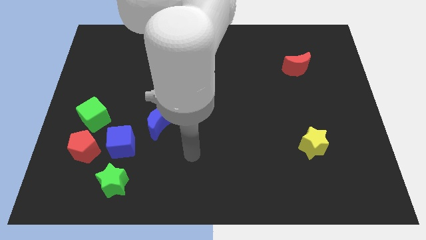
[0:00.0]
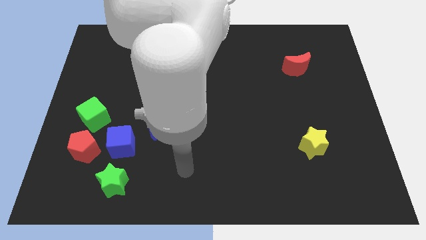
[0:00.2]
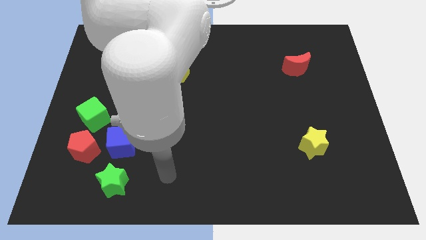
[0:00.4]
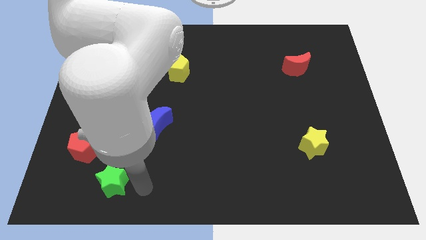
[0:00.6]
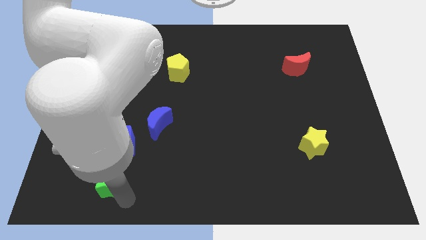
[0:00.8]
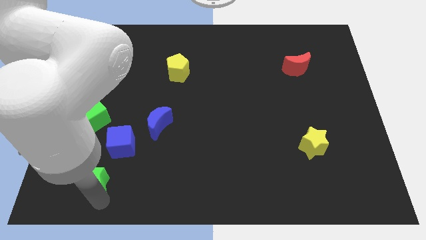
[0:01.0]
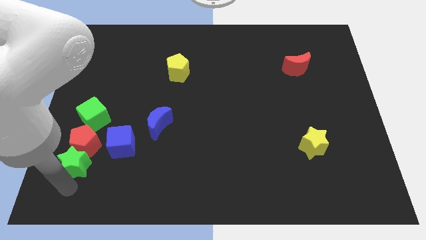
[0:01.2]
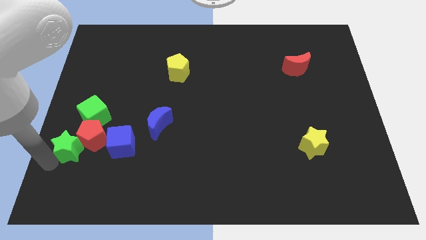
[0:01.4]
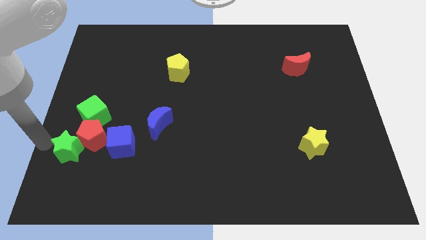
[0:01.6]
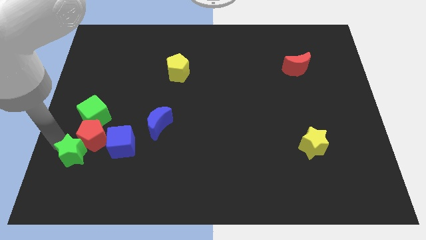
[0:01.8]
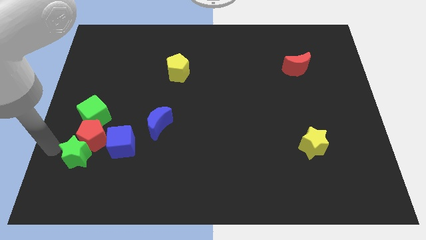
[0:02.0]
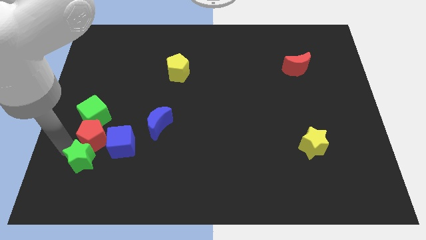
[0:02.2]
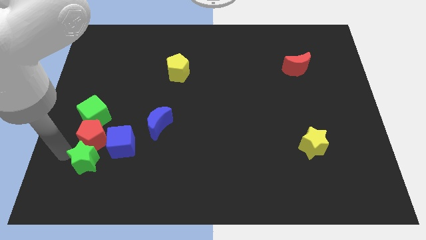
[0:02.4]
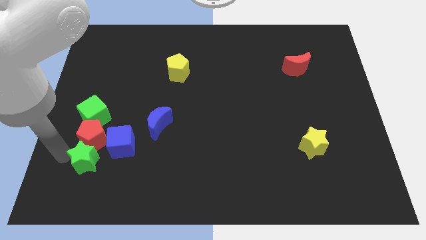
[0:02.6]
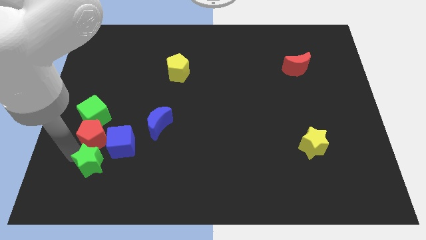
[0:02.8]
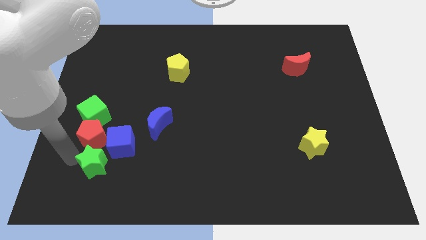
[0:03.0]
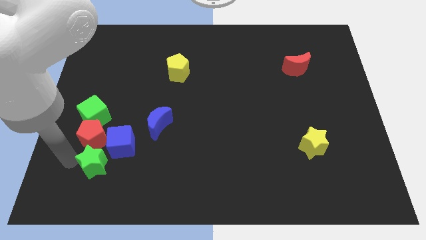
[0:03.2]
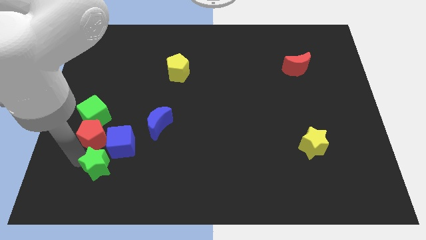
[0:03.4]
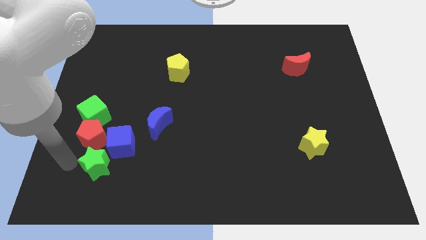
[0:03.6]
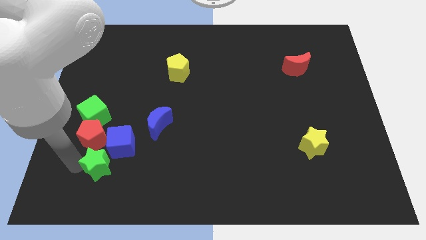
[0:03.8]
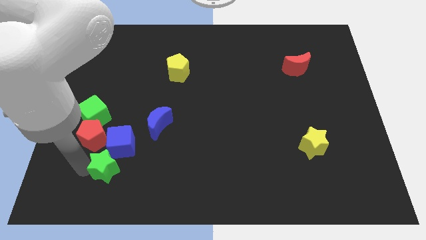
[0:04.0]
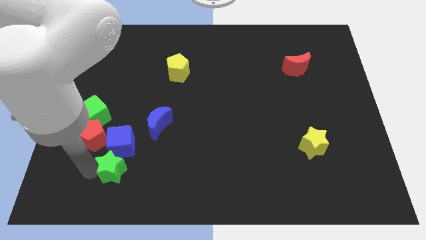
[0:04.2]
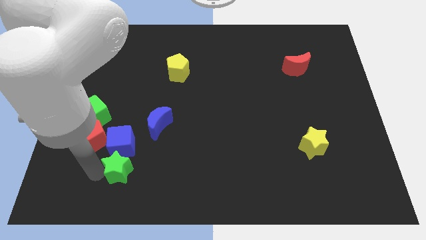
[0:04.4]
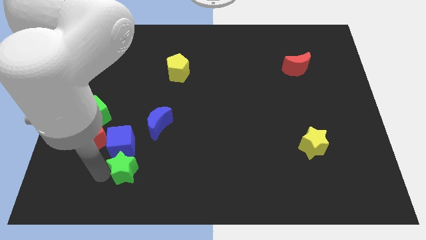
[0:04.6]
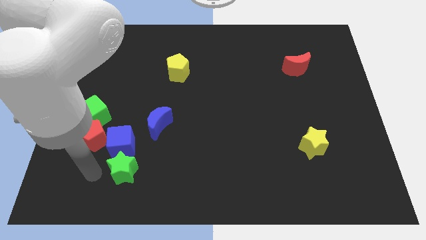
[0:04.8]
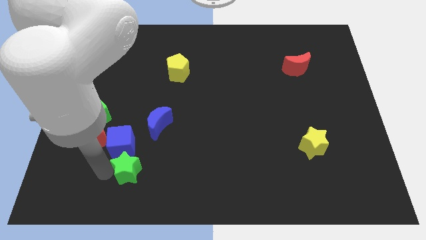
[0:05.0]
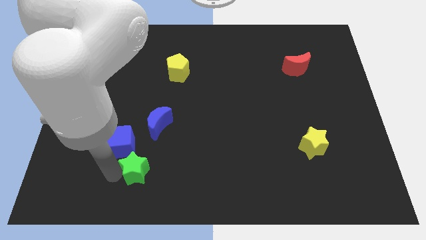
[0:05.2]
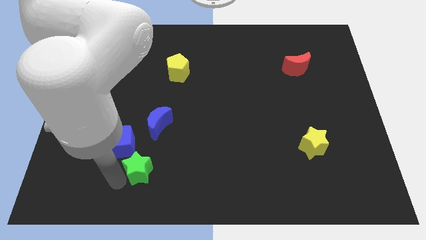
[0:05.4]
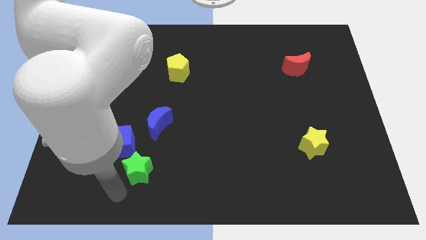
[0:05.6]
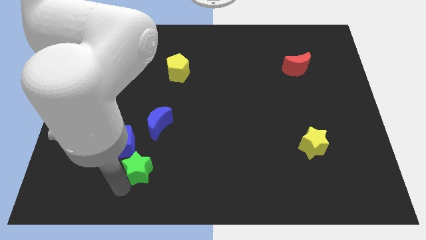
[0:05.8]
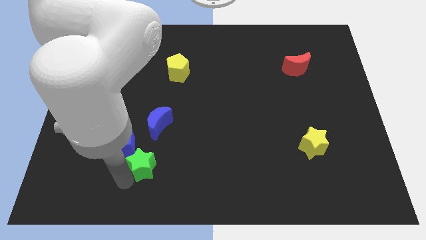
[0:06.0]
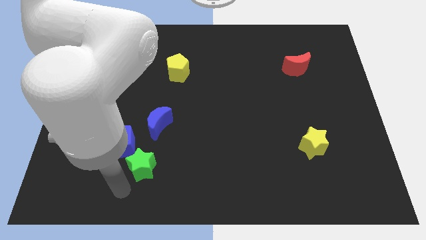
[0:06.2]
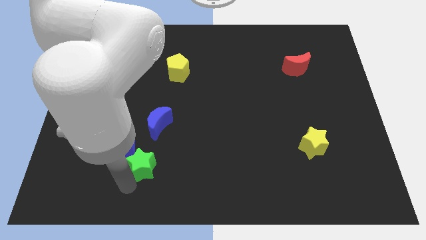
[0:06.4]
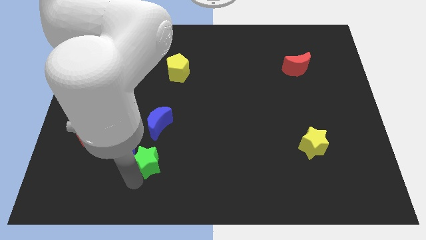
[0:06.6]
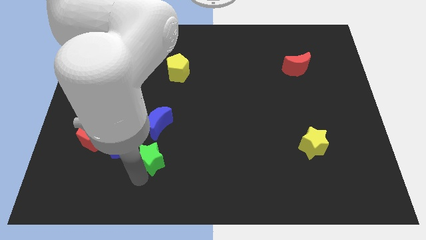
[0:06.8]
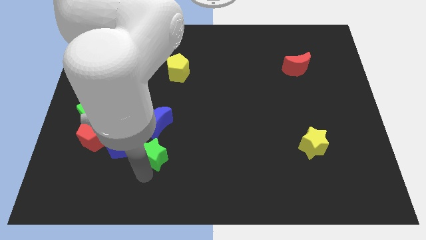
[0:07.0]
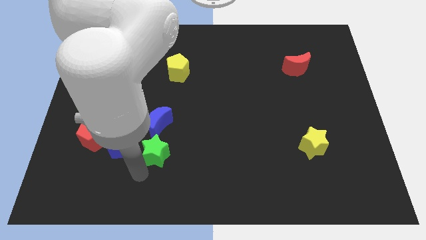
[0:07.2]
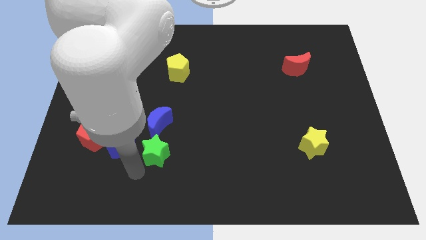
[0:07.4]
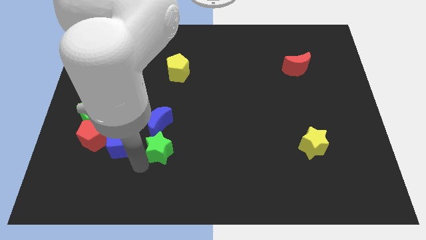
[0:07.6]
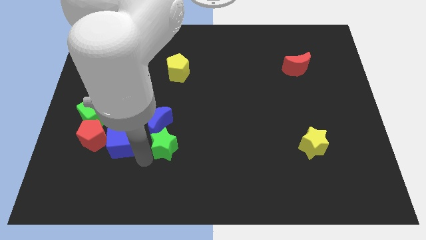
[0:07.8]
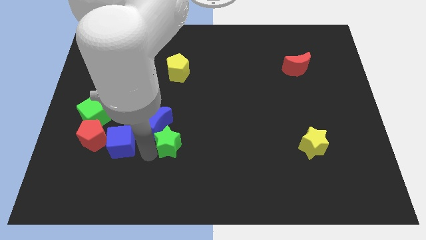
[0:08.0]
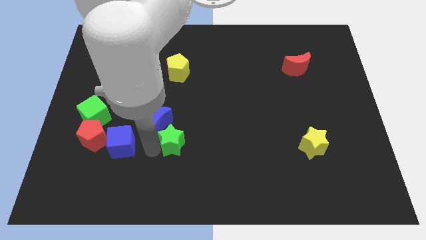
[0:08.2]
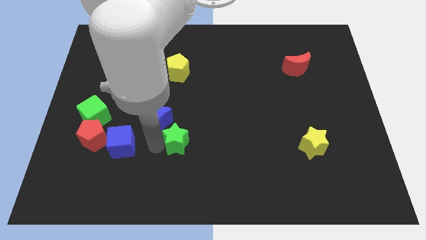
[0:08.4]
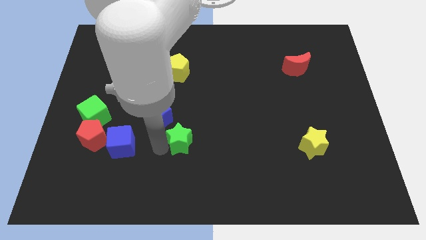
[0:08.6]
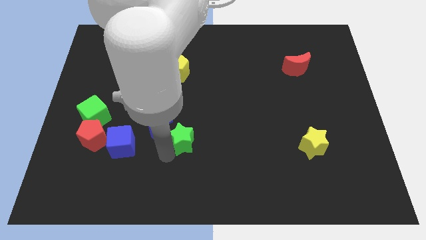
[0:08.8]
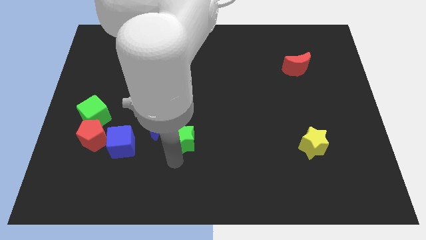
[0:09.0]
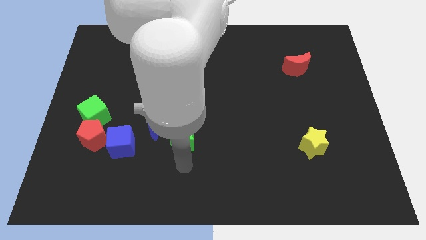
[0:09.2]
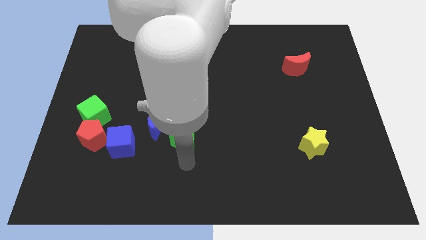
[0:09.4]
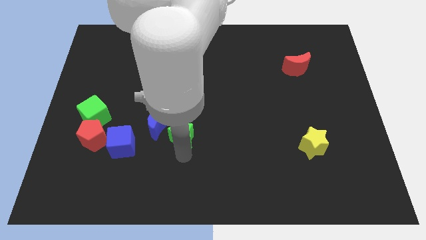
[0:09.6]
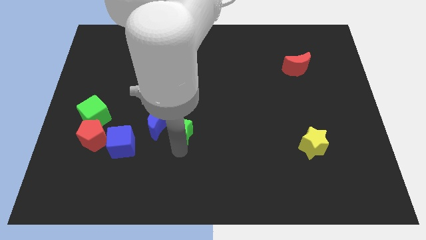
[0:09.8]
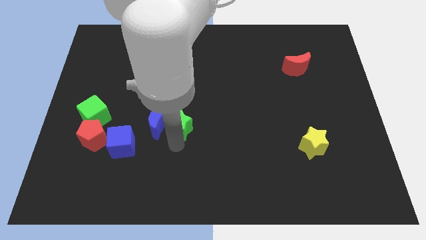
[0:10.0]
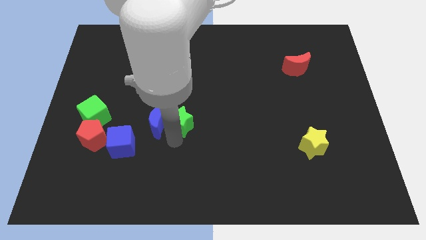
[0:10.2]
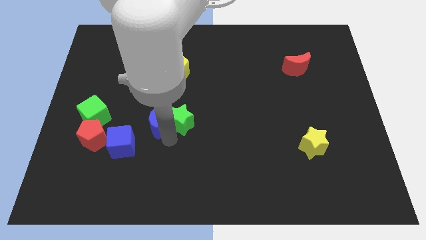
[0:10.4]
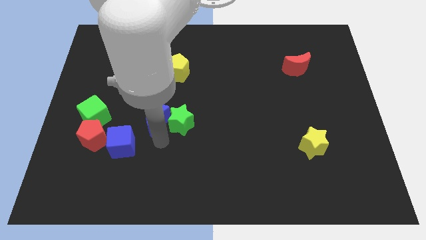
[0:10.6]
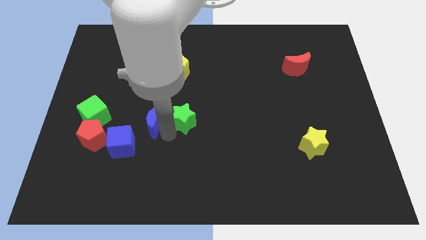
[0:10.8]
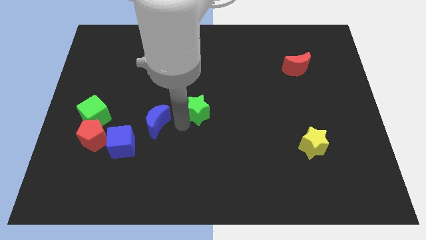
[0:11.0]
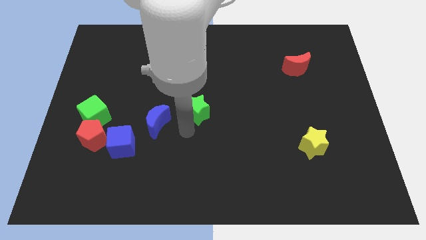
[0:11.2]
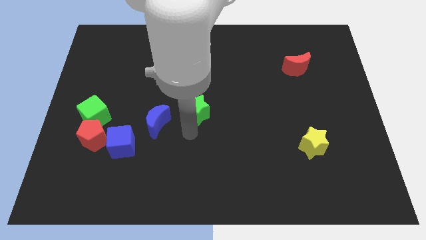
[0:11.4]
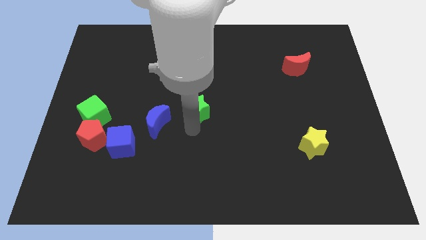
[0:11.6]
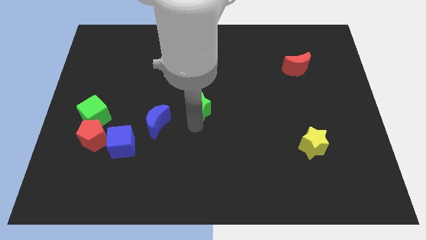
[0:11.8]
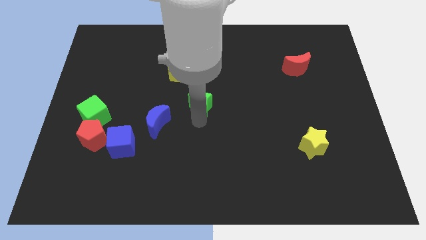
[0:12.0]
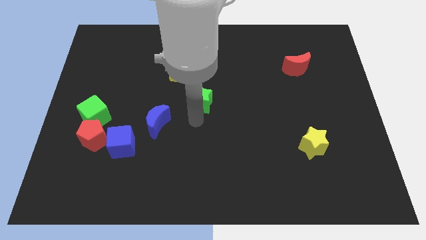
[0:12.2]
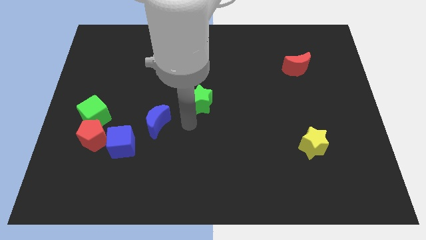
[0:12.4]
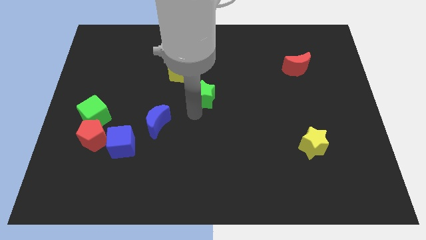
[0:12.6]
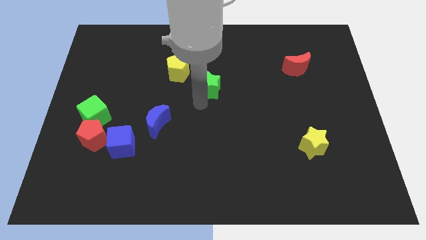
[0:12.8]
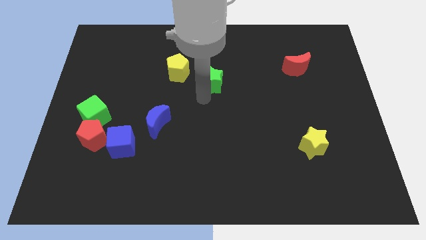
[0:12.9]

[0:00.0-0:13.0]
move the green star to the right side of the yellow pentagon

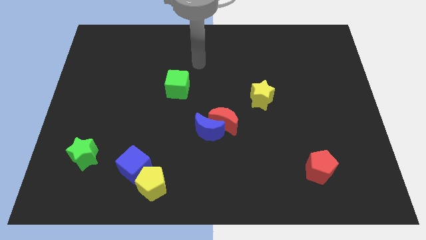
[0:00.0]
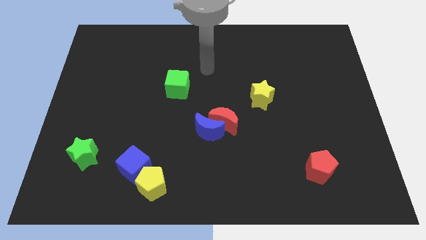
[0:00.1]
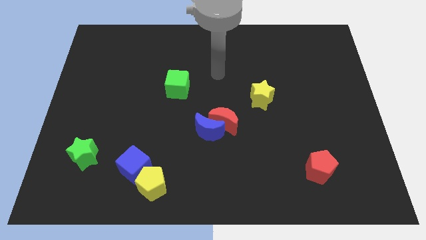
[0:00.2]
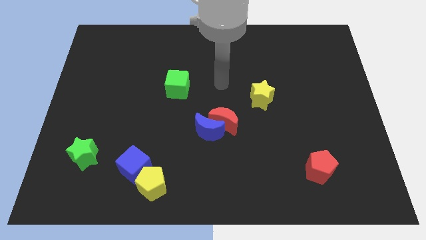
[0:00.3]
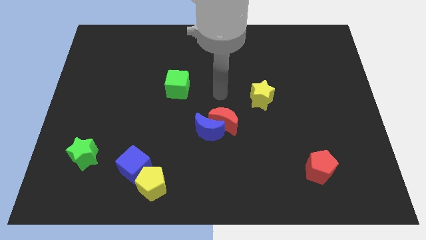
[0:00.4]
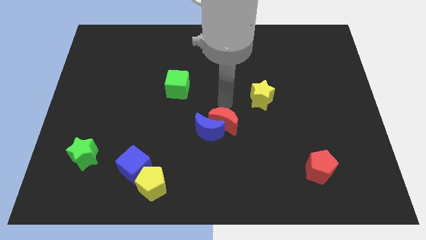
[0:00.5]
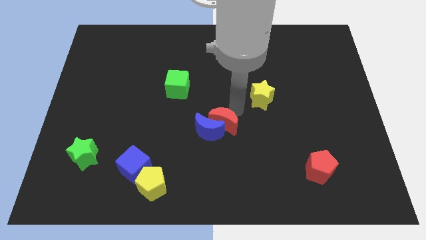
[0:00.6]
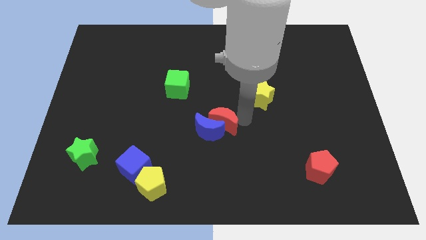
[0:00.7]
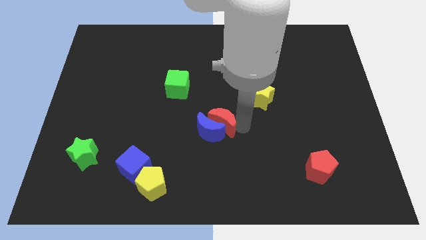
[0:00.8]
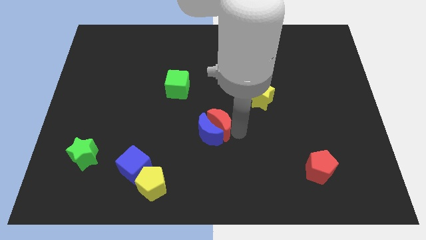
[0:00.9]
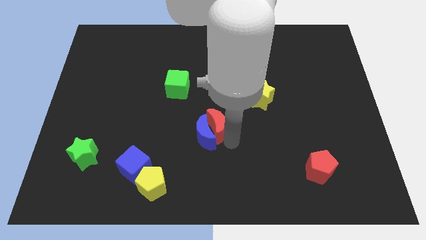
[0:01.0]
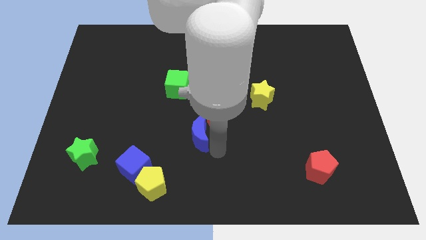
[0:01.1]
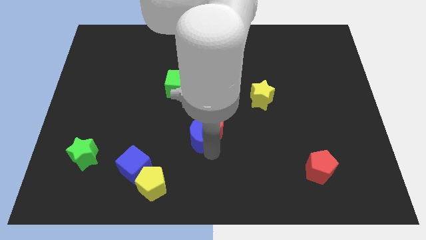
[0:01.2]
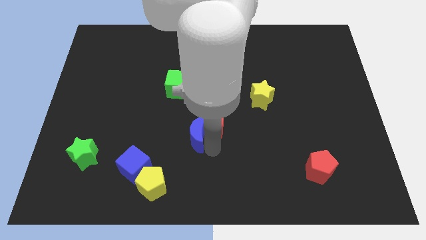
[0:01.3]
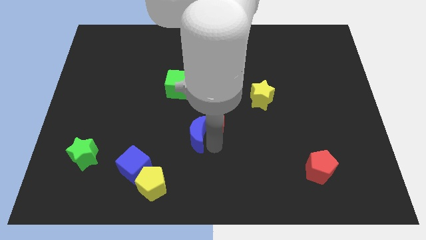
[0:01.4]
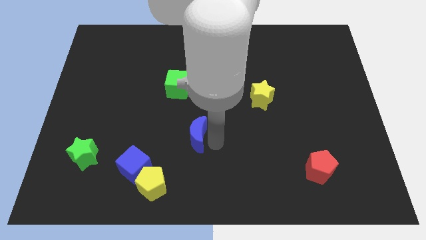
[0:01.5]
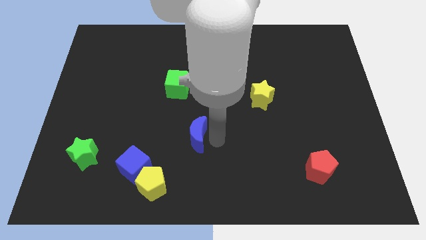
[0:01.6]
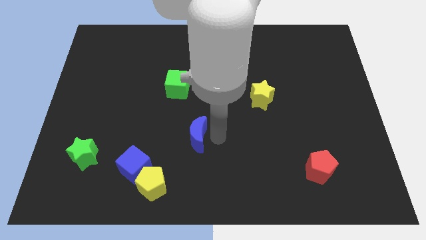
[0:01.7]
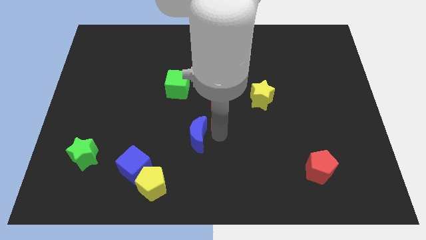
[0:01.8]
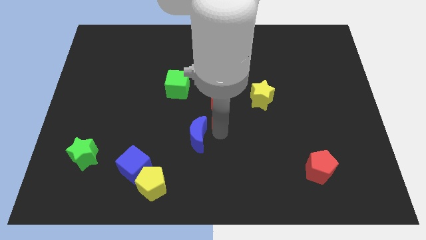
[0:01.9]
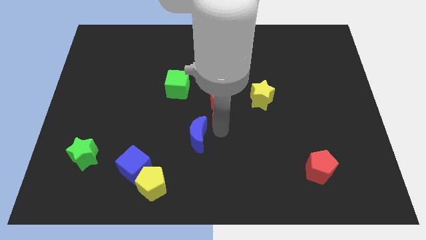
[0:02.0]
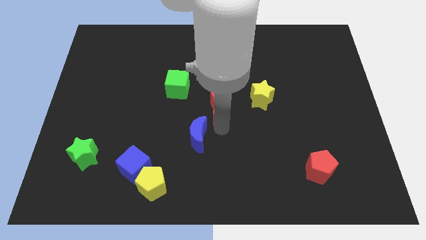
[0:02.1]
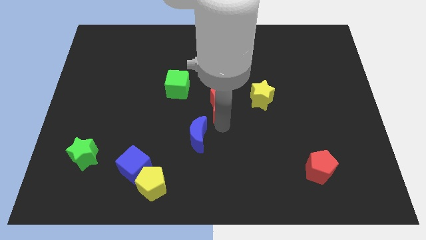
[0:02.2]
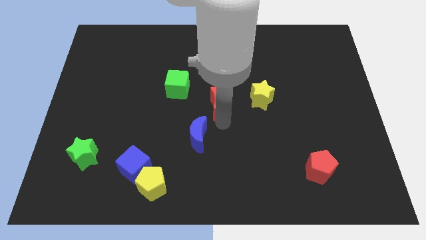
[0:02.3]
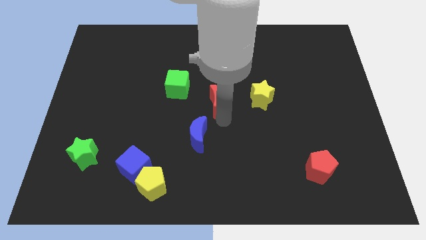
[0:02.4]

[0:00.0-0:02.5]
move the red moon right of the green cube
